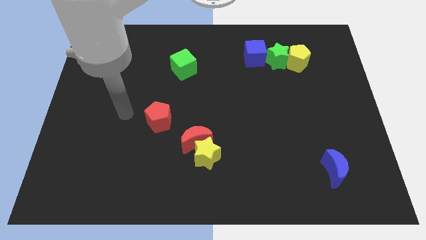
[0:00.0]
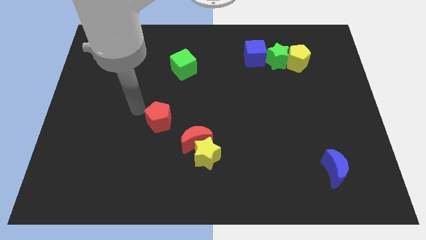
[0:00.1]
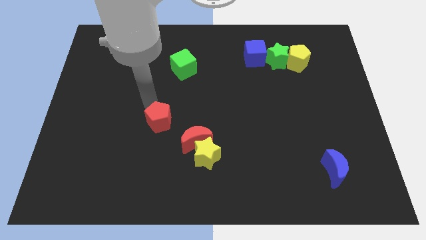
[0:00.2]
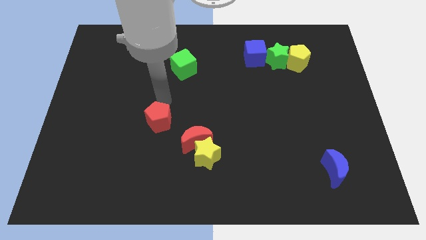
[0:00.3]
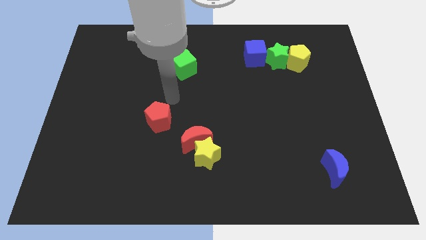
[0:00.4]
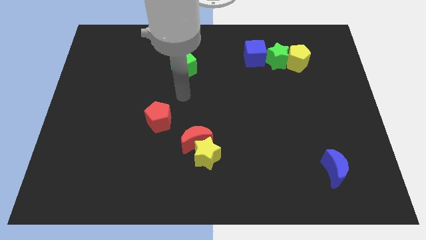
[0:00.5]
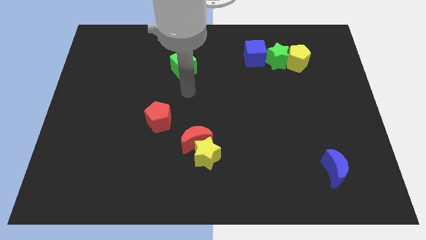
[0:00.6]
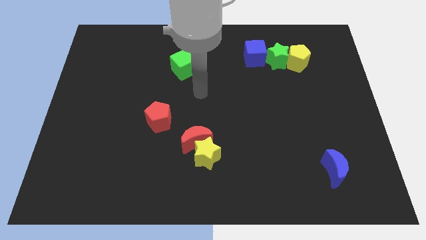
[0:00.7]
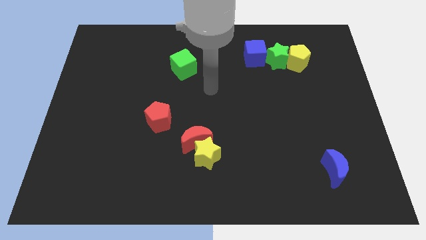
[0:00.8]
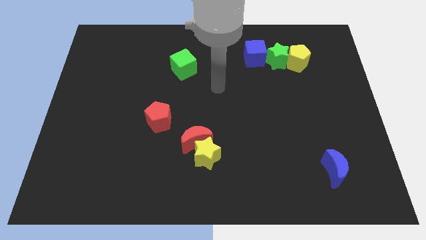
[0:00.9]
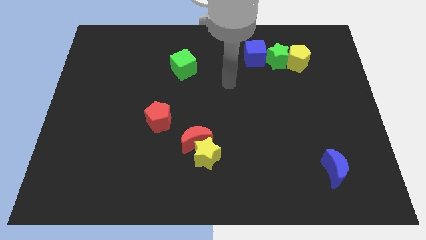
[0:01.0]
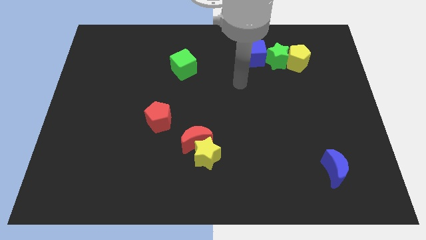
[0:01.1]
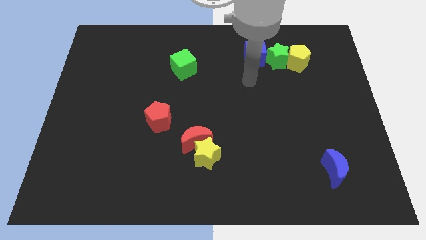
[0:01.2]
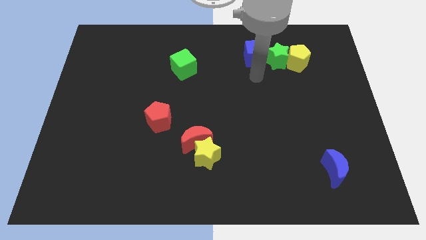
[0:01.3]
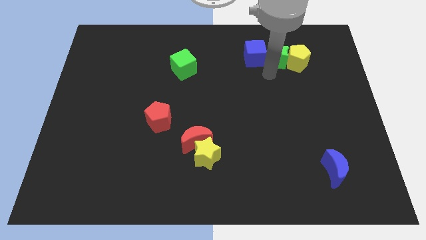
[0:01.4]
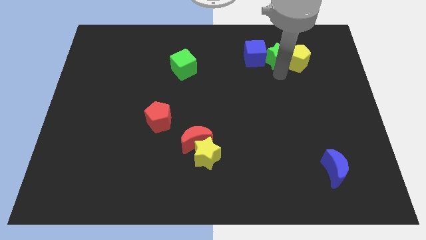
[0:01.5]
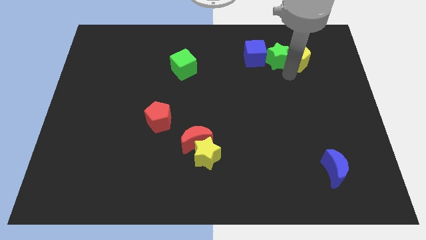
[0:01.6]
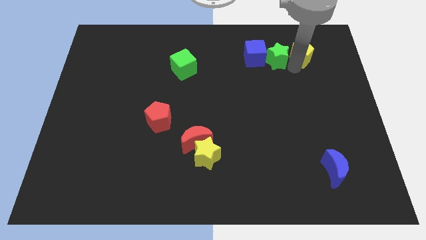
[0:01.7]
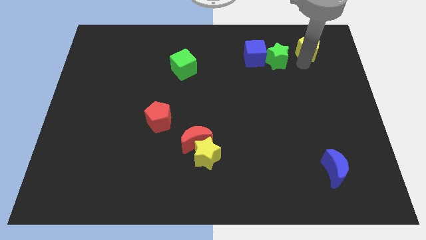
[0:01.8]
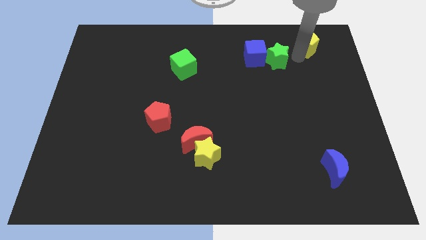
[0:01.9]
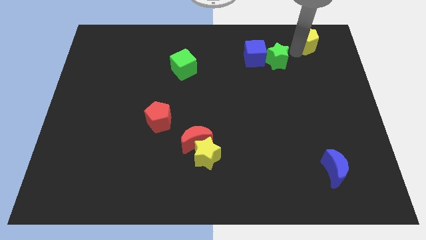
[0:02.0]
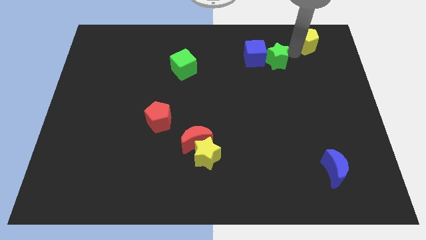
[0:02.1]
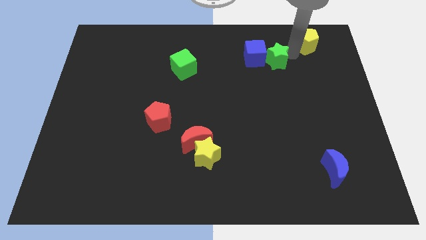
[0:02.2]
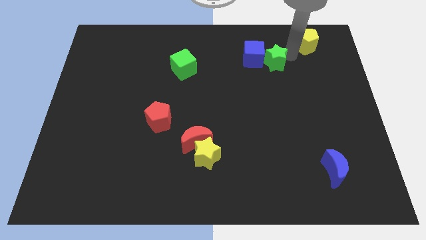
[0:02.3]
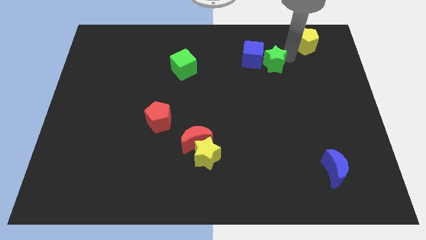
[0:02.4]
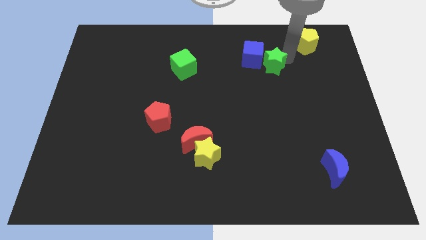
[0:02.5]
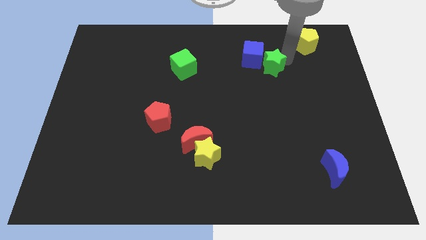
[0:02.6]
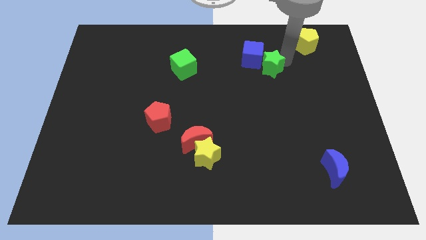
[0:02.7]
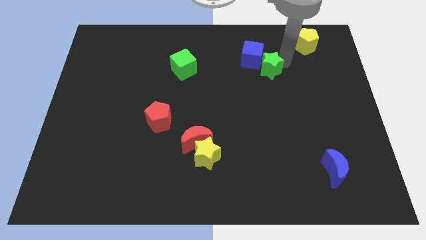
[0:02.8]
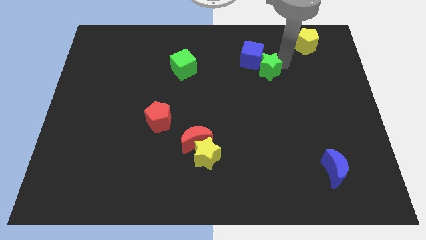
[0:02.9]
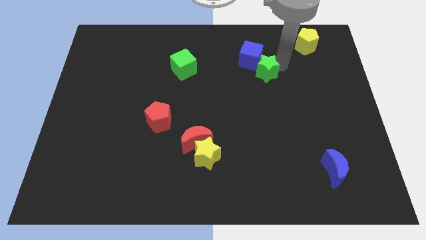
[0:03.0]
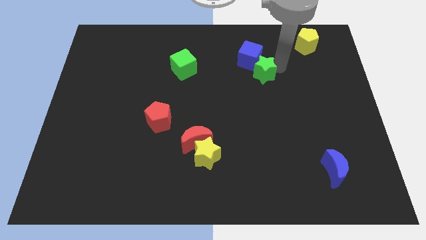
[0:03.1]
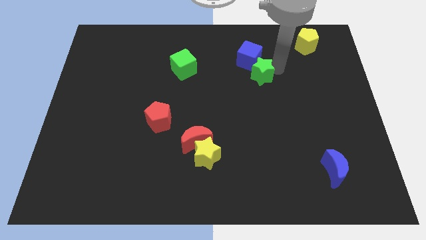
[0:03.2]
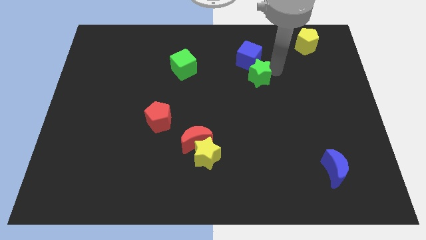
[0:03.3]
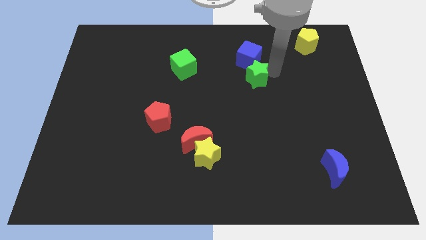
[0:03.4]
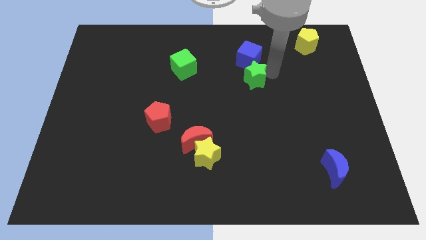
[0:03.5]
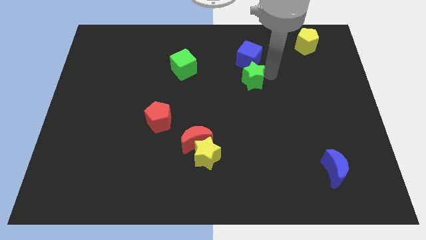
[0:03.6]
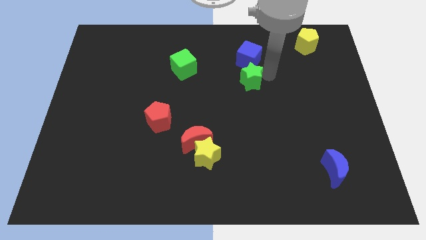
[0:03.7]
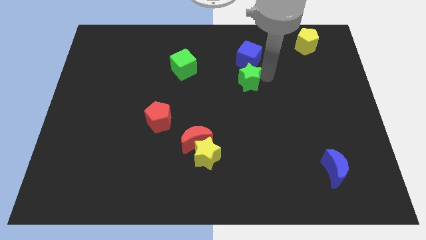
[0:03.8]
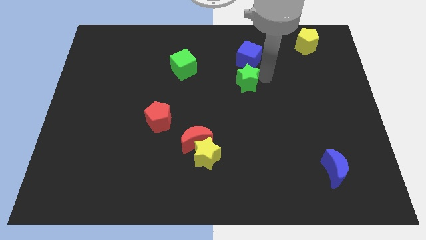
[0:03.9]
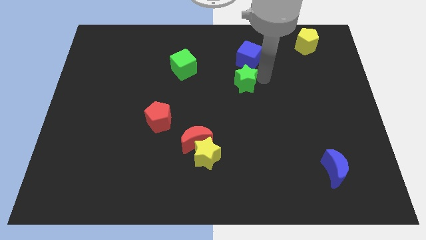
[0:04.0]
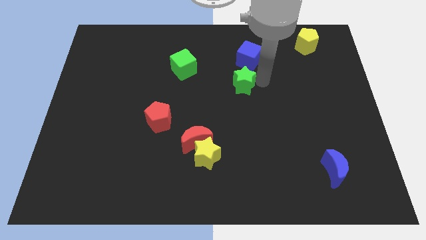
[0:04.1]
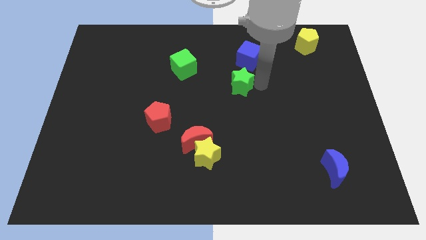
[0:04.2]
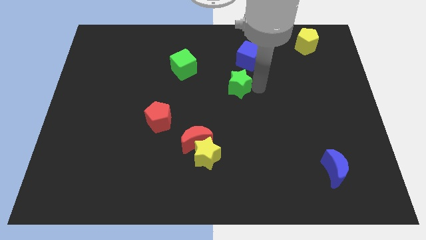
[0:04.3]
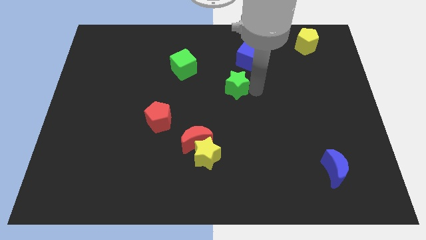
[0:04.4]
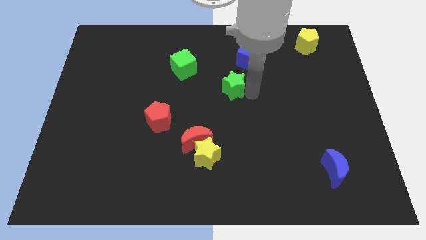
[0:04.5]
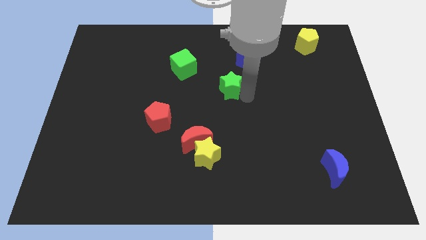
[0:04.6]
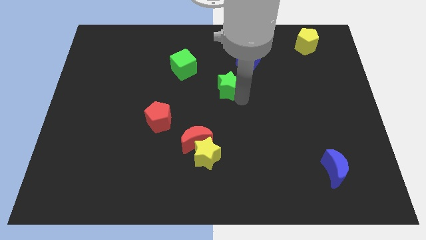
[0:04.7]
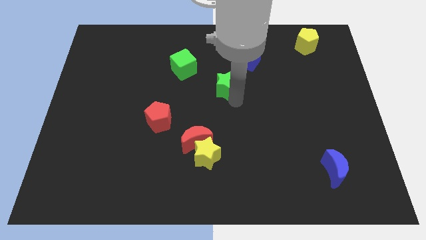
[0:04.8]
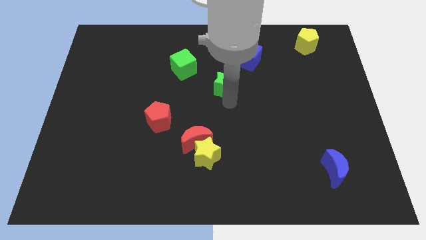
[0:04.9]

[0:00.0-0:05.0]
put the green star to the bottom right of the green cube

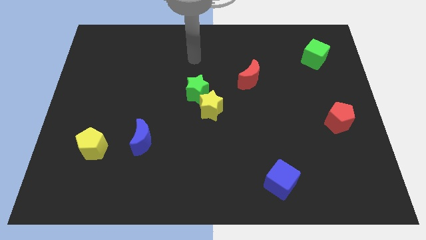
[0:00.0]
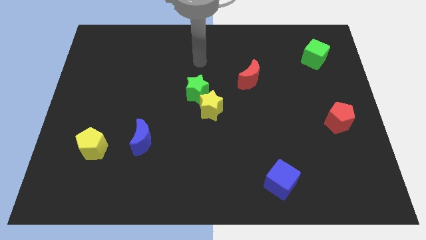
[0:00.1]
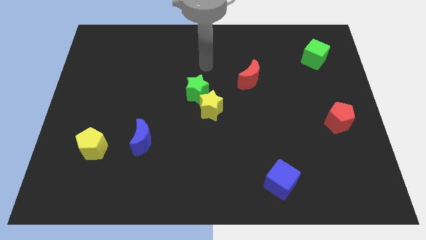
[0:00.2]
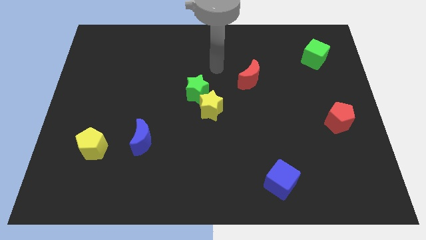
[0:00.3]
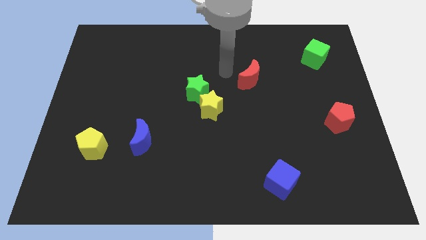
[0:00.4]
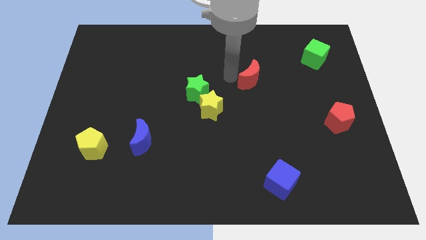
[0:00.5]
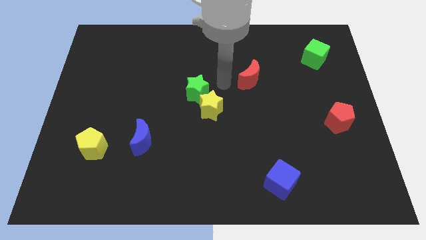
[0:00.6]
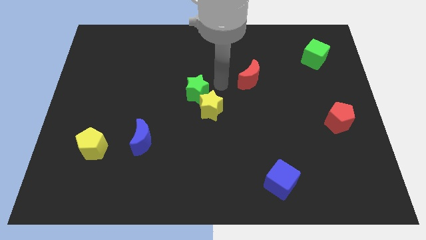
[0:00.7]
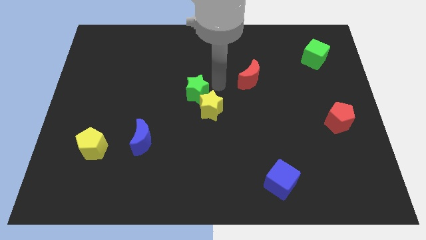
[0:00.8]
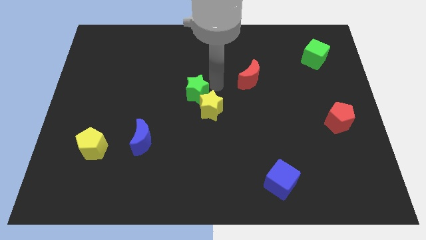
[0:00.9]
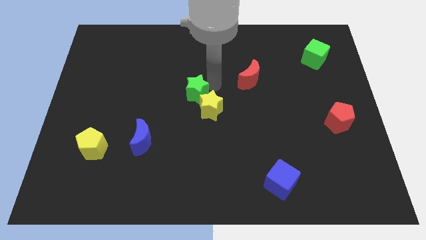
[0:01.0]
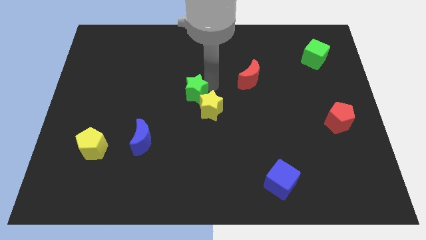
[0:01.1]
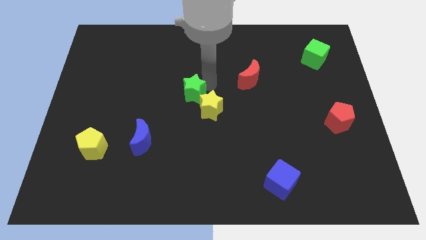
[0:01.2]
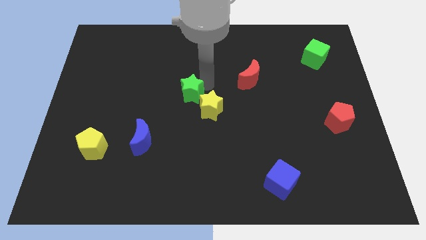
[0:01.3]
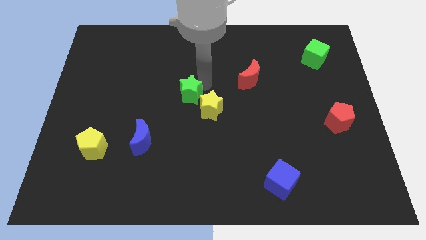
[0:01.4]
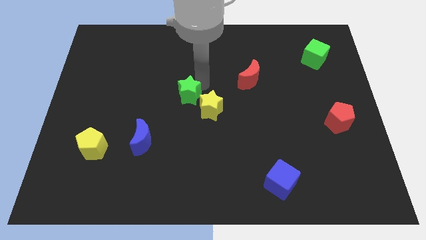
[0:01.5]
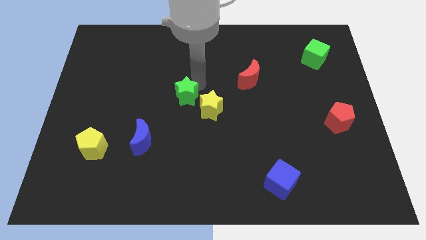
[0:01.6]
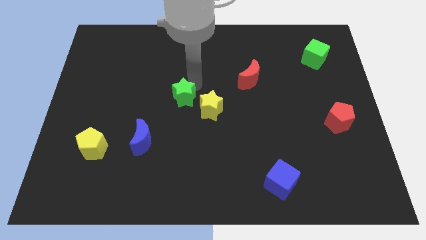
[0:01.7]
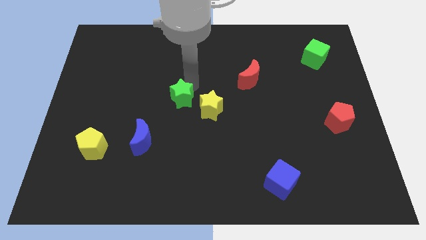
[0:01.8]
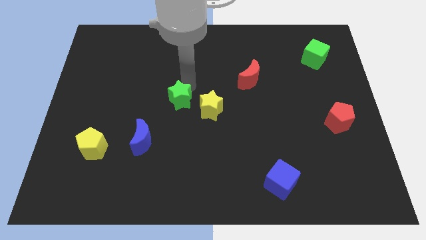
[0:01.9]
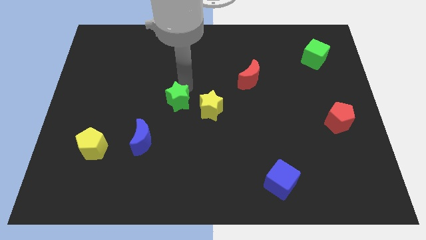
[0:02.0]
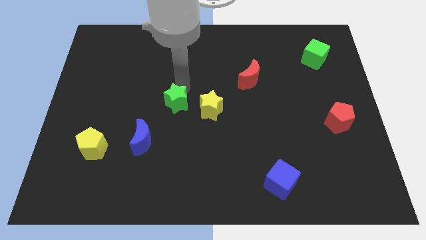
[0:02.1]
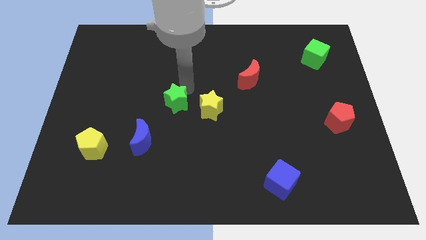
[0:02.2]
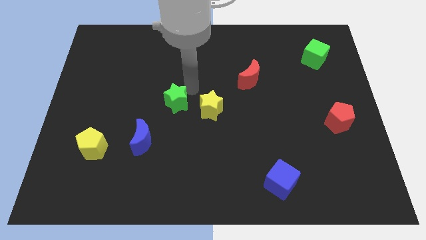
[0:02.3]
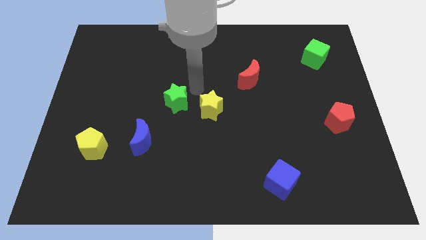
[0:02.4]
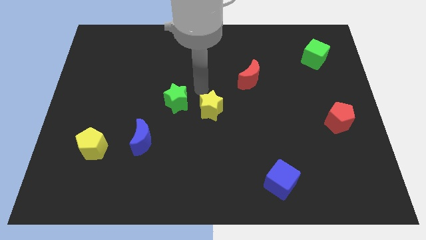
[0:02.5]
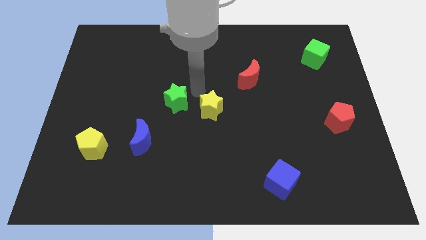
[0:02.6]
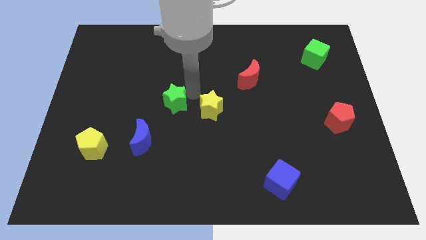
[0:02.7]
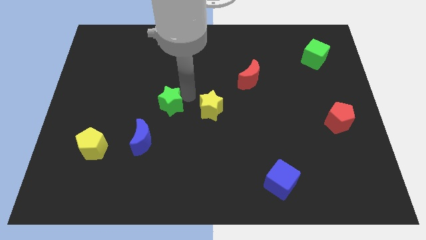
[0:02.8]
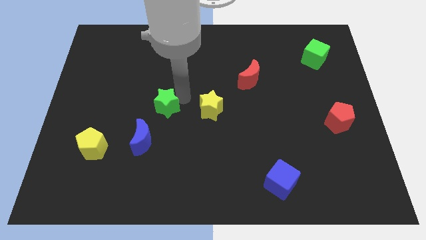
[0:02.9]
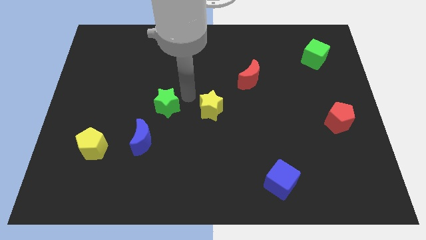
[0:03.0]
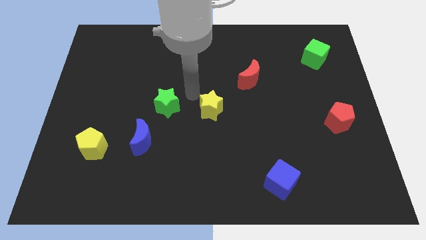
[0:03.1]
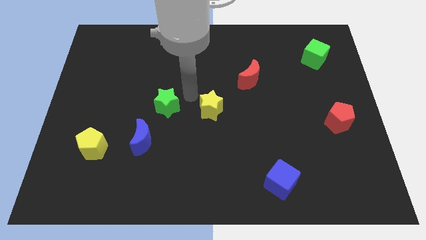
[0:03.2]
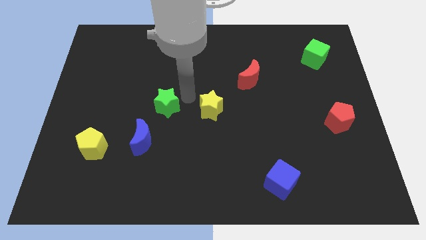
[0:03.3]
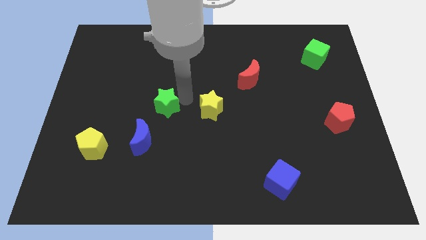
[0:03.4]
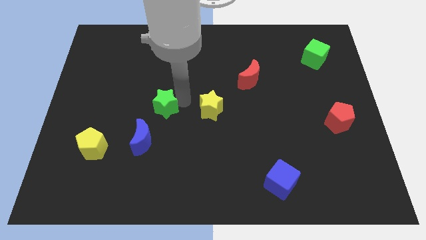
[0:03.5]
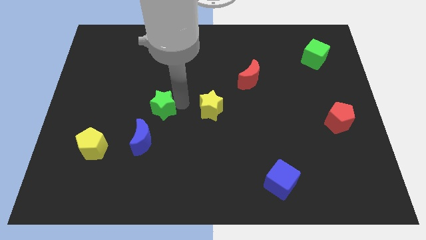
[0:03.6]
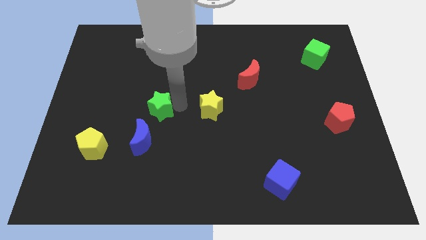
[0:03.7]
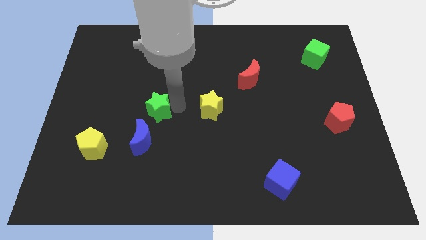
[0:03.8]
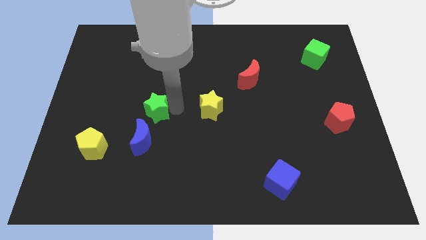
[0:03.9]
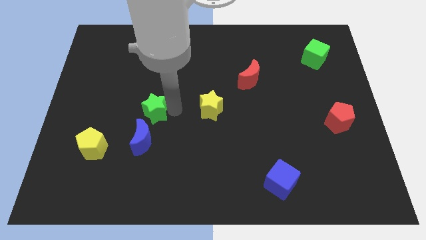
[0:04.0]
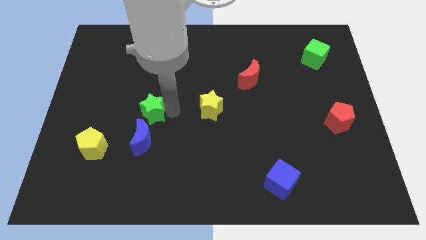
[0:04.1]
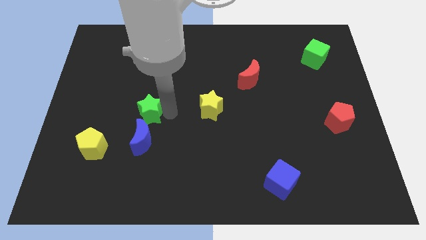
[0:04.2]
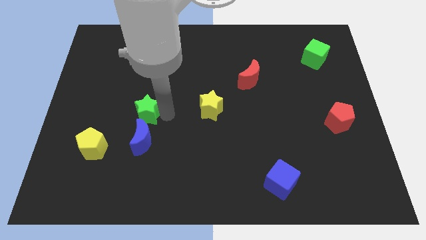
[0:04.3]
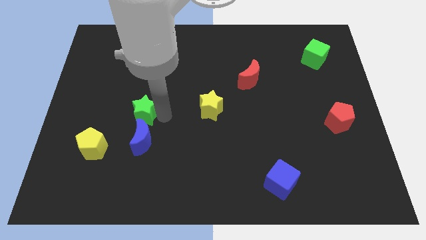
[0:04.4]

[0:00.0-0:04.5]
move the green star diagonally up and to the left of the blue moon
